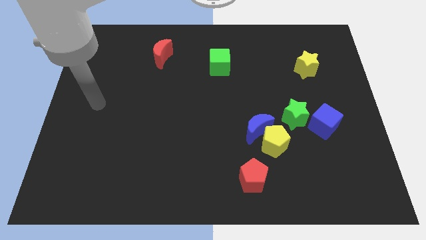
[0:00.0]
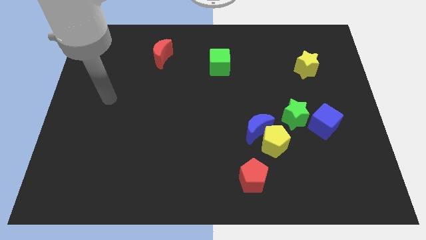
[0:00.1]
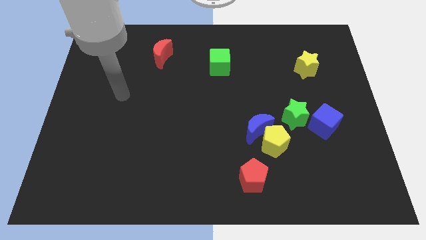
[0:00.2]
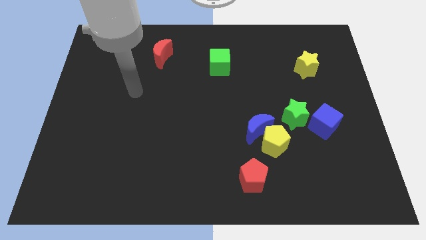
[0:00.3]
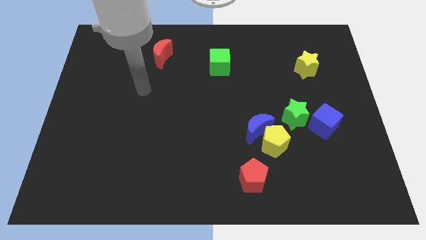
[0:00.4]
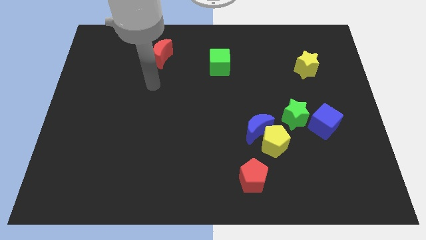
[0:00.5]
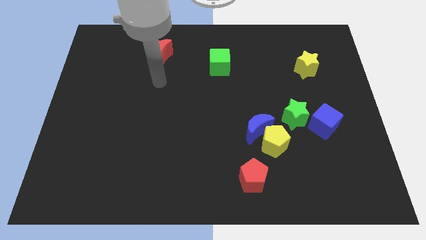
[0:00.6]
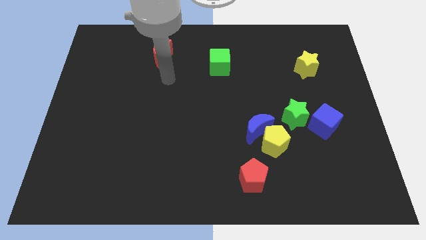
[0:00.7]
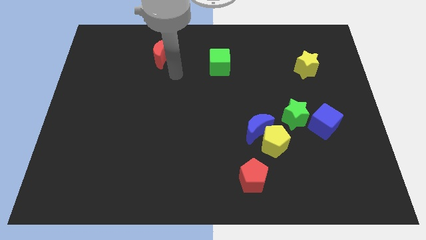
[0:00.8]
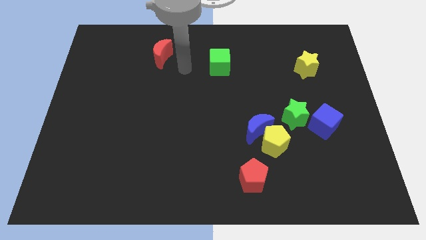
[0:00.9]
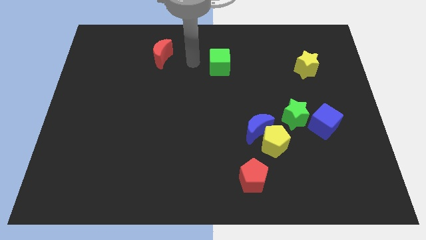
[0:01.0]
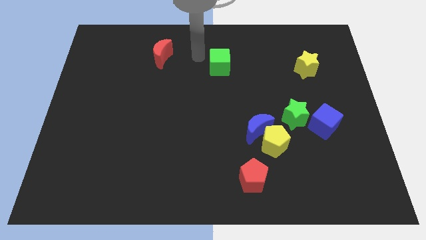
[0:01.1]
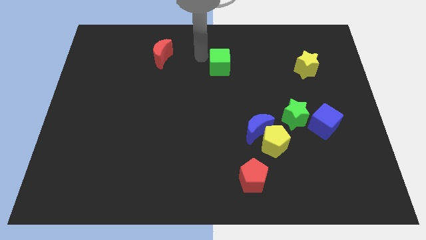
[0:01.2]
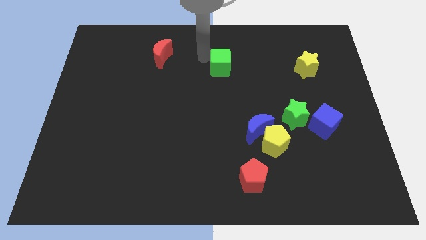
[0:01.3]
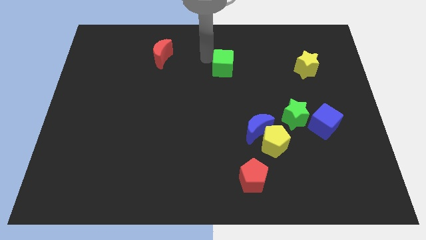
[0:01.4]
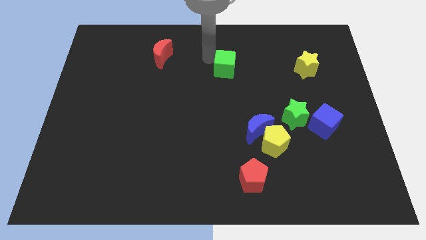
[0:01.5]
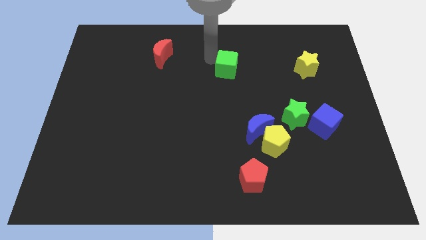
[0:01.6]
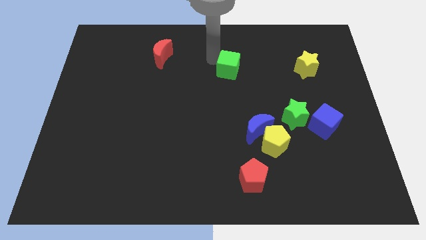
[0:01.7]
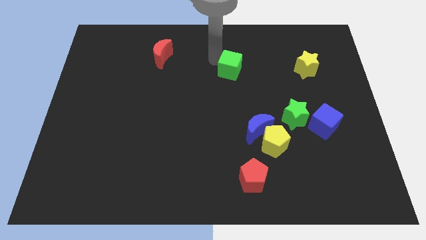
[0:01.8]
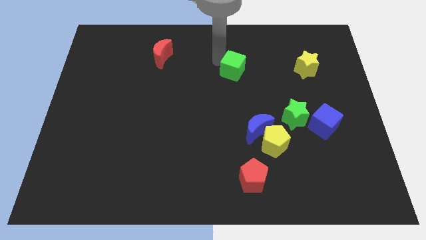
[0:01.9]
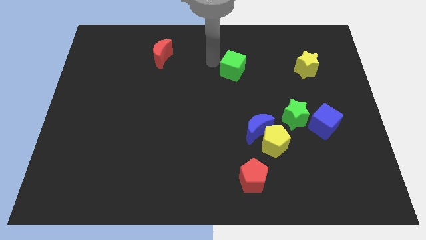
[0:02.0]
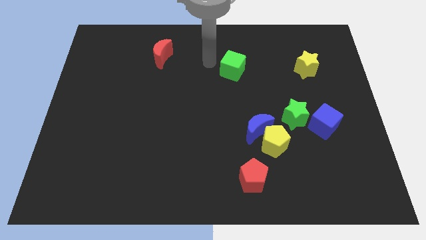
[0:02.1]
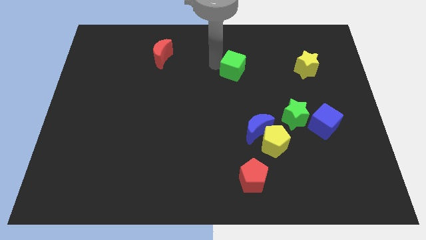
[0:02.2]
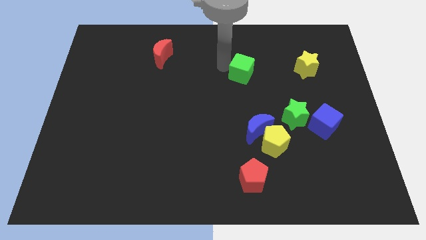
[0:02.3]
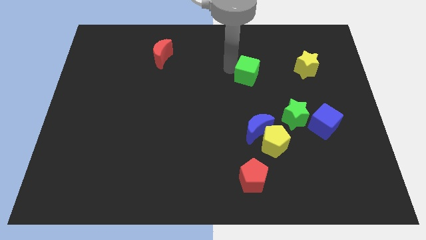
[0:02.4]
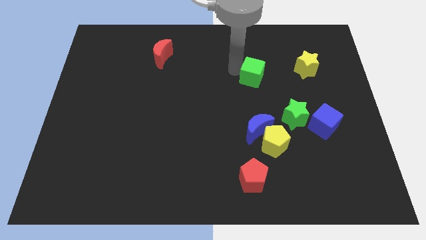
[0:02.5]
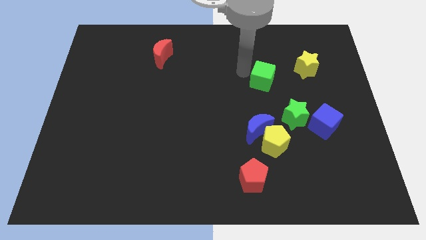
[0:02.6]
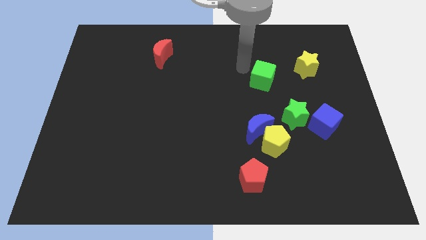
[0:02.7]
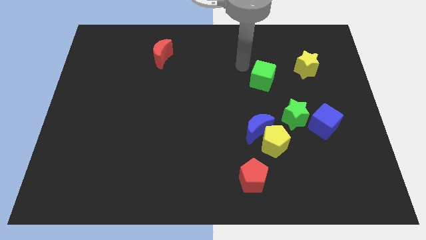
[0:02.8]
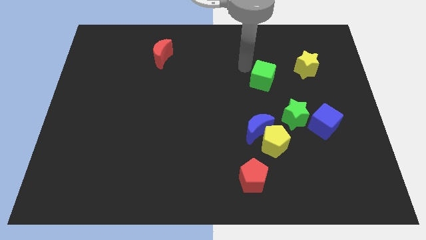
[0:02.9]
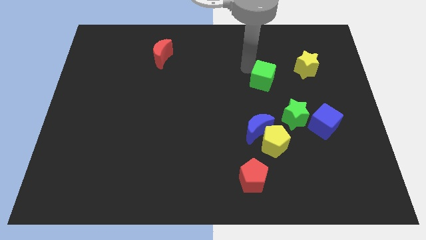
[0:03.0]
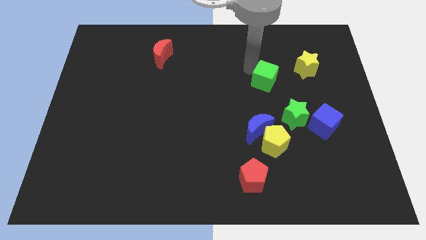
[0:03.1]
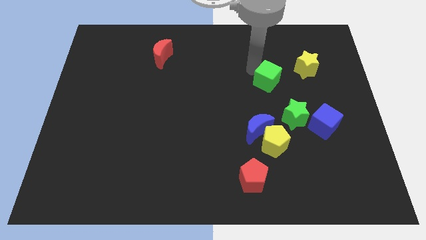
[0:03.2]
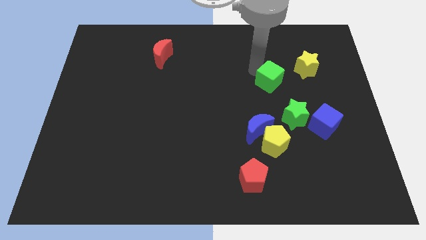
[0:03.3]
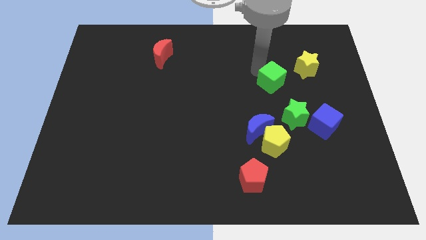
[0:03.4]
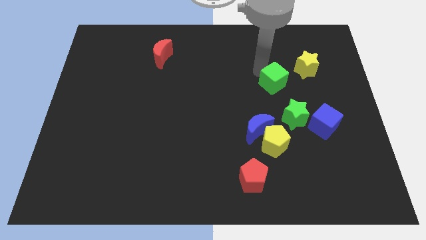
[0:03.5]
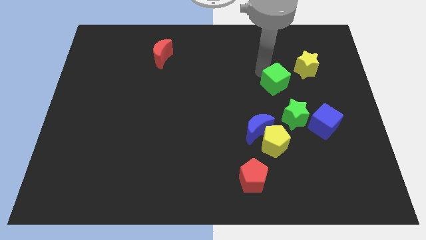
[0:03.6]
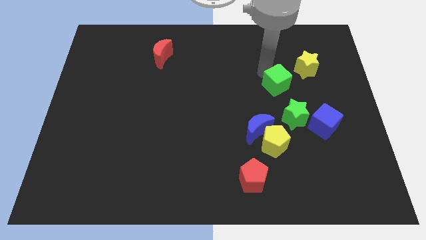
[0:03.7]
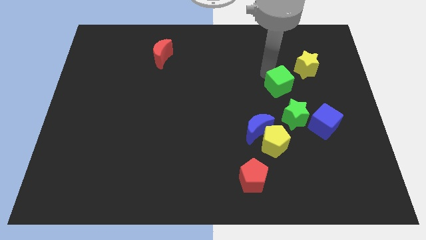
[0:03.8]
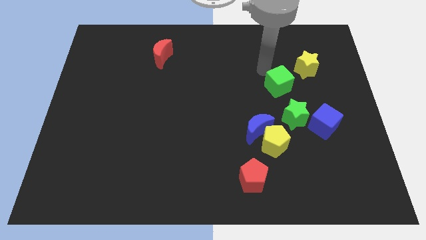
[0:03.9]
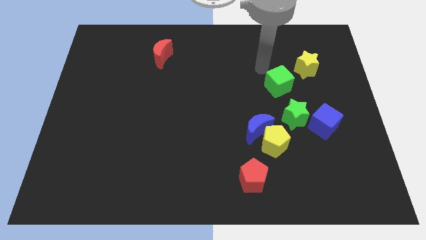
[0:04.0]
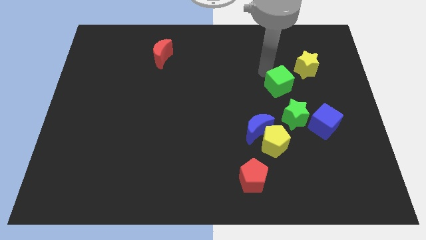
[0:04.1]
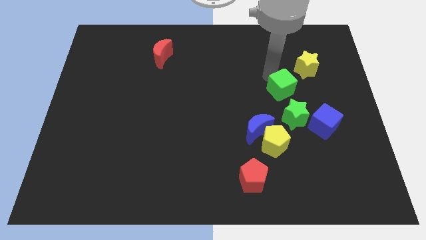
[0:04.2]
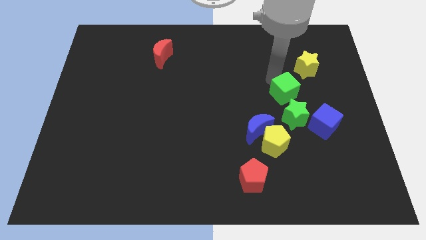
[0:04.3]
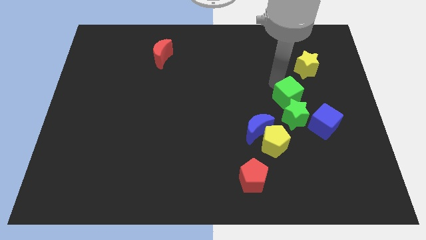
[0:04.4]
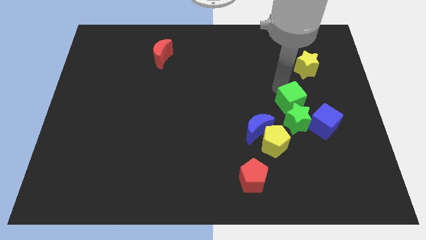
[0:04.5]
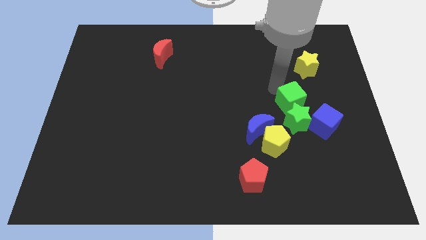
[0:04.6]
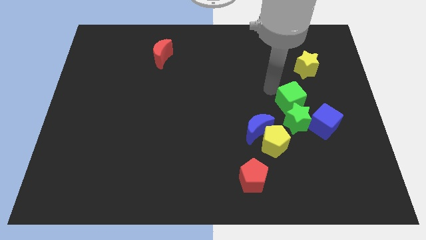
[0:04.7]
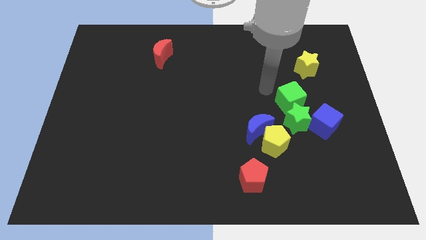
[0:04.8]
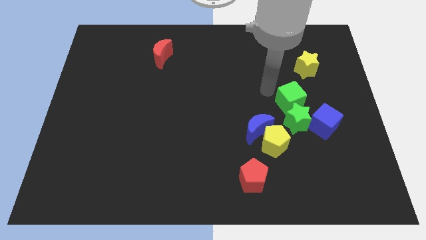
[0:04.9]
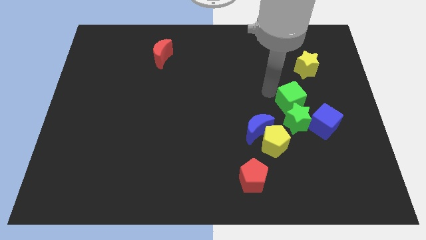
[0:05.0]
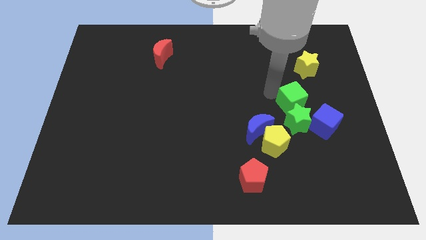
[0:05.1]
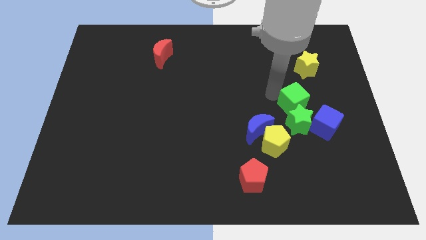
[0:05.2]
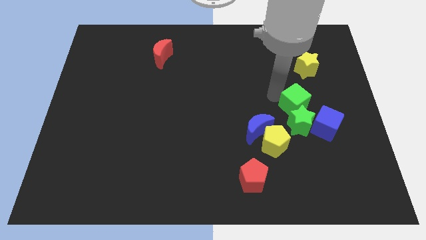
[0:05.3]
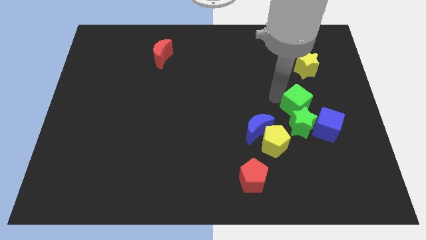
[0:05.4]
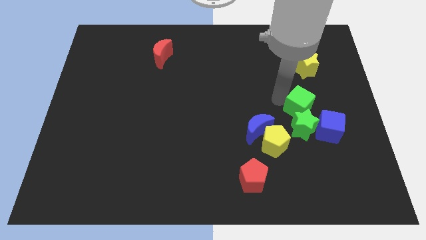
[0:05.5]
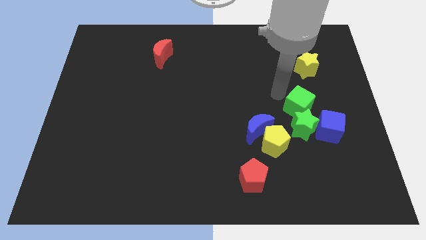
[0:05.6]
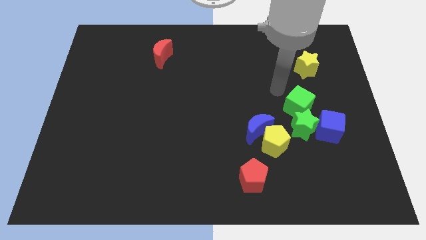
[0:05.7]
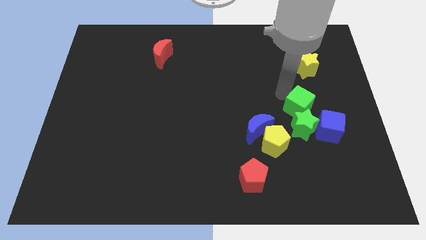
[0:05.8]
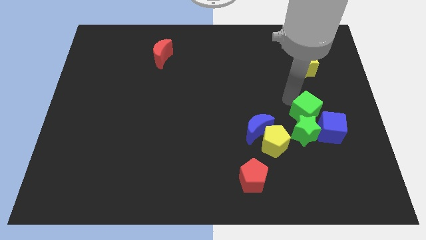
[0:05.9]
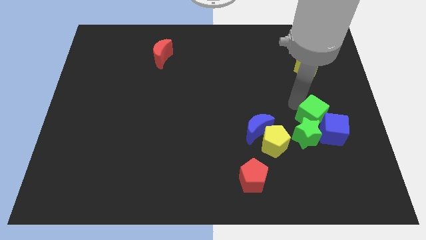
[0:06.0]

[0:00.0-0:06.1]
move the green cube next to the blue cube

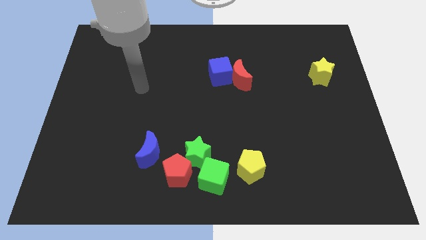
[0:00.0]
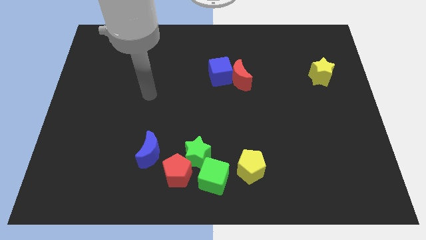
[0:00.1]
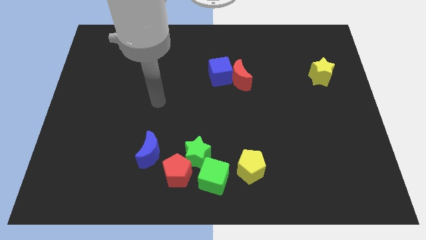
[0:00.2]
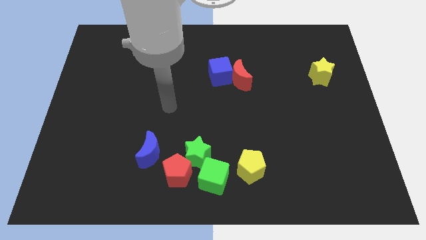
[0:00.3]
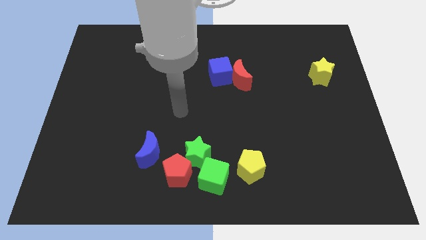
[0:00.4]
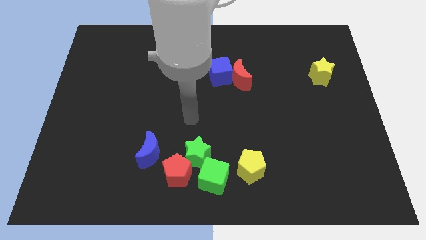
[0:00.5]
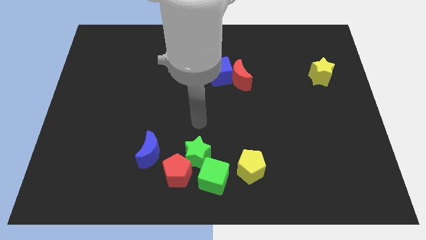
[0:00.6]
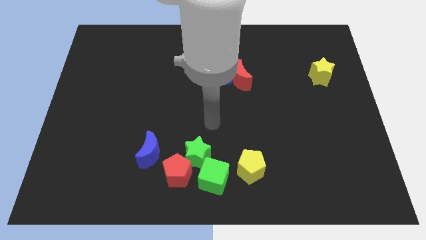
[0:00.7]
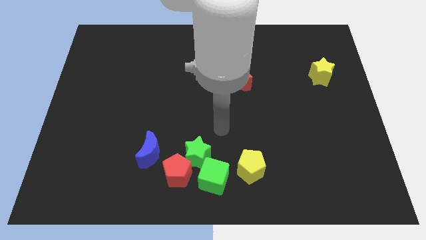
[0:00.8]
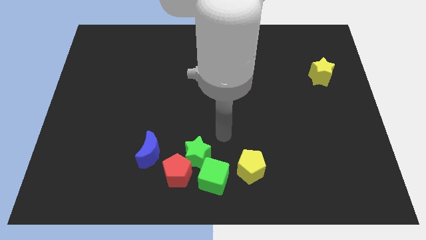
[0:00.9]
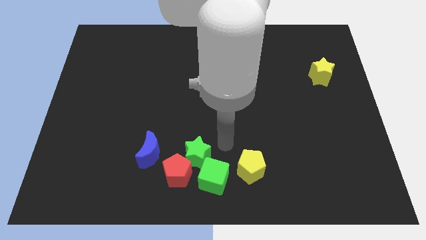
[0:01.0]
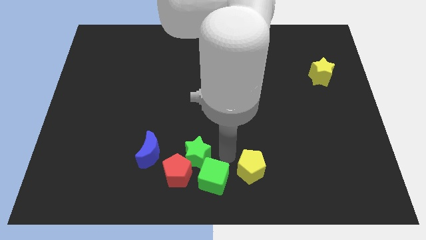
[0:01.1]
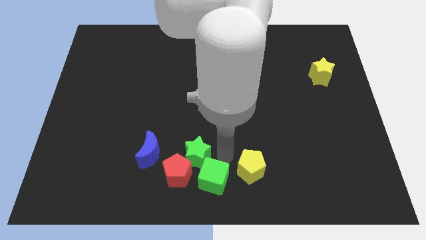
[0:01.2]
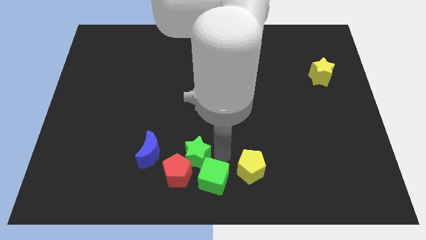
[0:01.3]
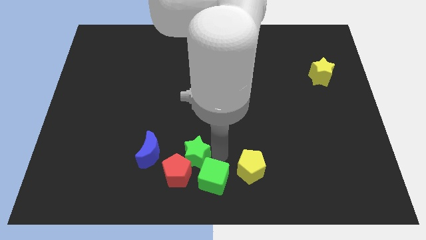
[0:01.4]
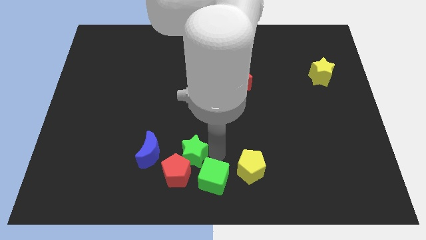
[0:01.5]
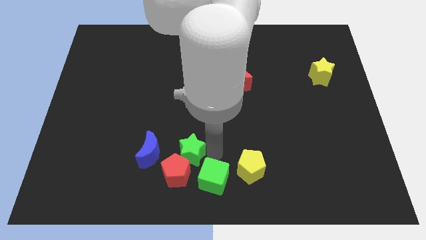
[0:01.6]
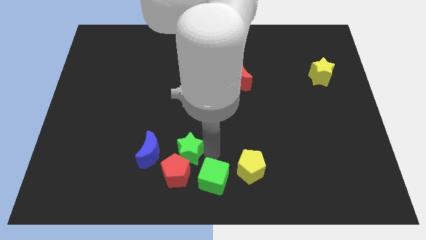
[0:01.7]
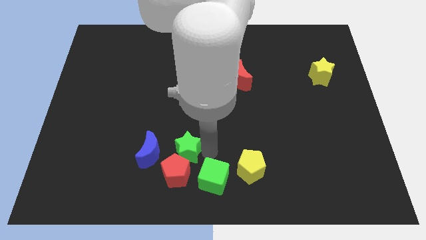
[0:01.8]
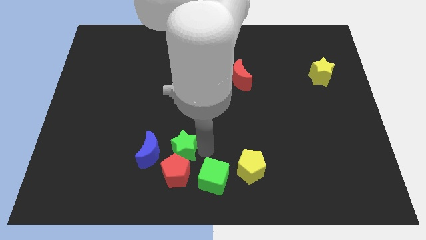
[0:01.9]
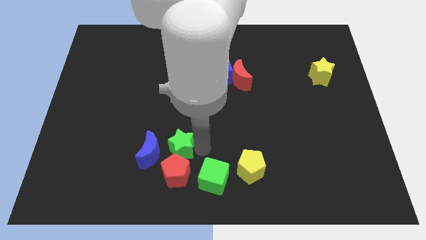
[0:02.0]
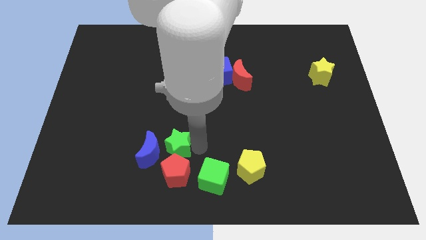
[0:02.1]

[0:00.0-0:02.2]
push the green star to the blue moon
